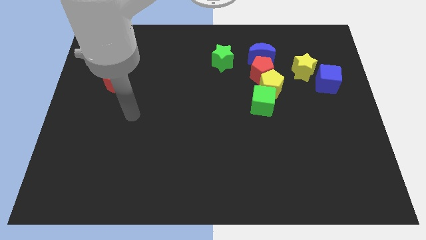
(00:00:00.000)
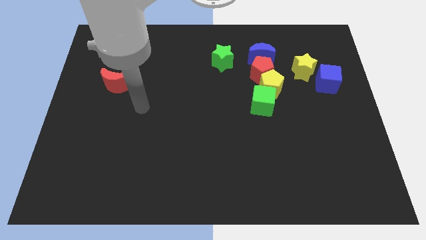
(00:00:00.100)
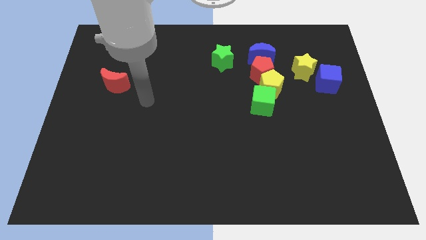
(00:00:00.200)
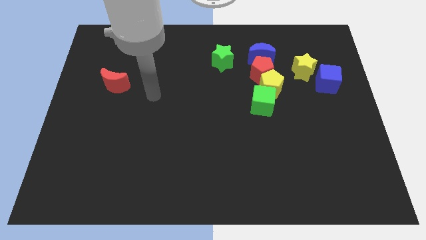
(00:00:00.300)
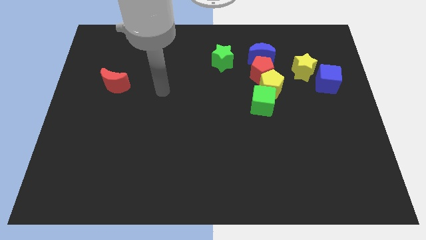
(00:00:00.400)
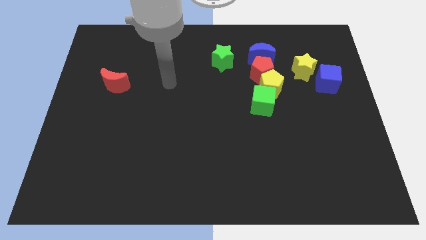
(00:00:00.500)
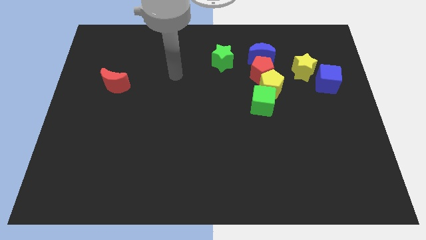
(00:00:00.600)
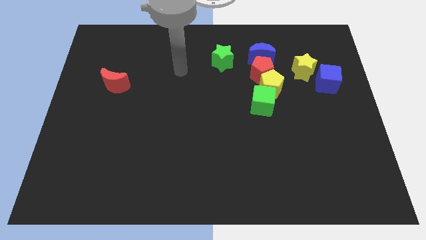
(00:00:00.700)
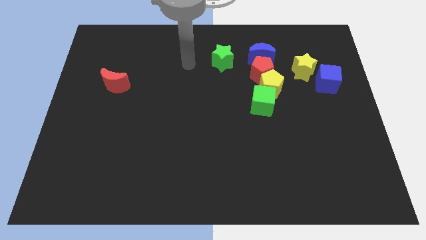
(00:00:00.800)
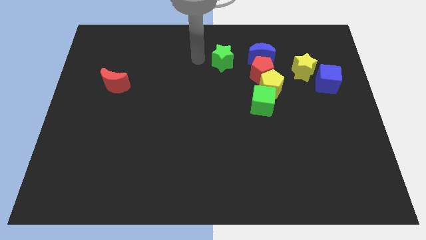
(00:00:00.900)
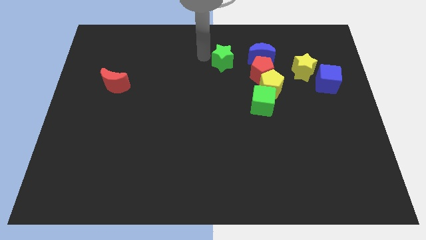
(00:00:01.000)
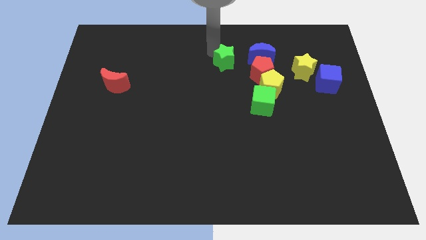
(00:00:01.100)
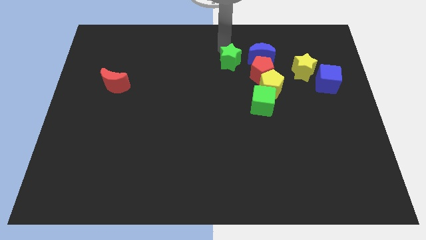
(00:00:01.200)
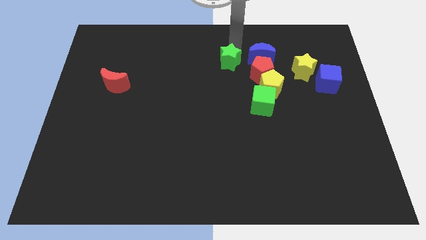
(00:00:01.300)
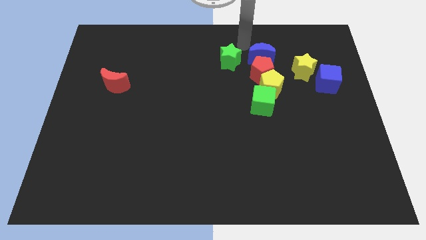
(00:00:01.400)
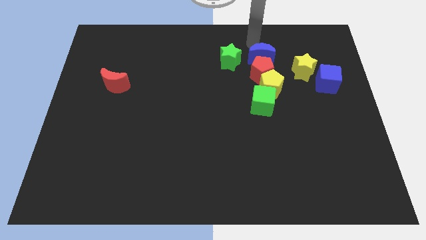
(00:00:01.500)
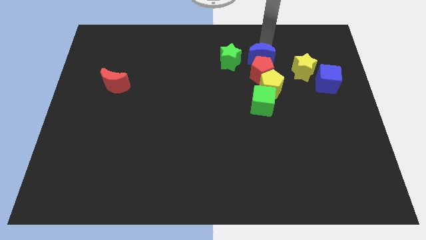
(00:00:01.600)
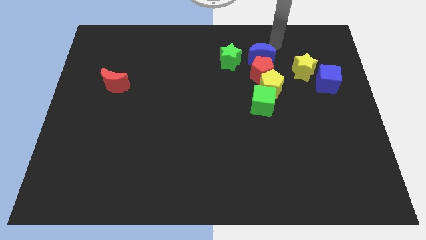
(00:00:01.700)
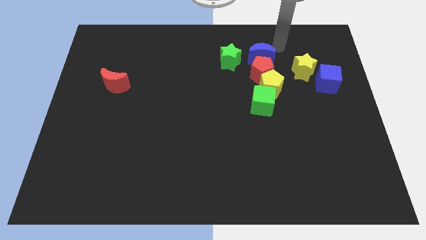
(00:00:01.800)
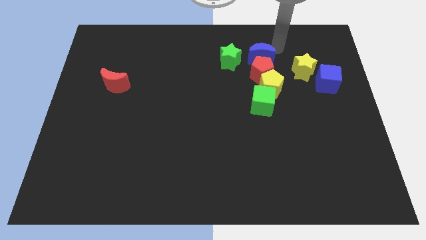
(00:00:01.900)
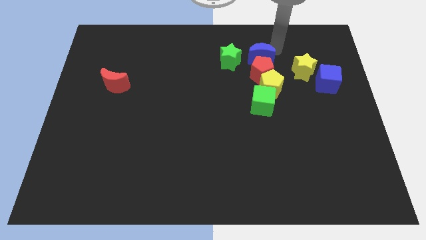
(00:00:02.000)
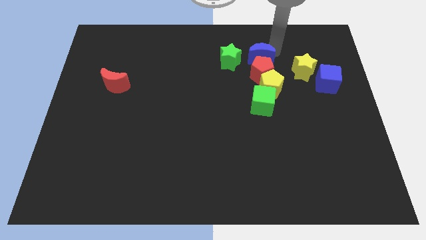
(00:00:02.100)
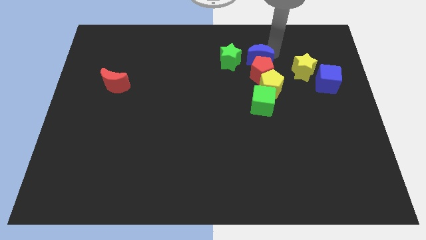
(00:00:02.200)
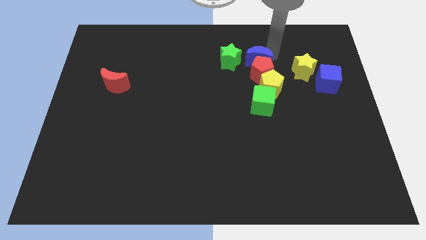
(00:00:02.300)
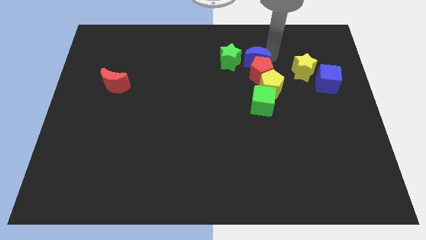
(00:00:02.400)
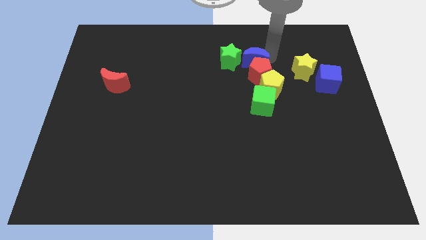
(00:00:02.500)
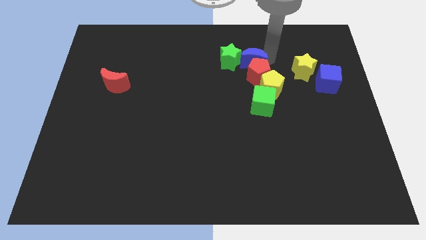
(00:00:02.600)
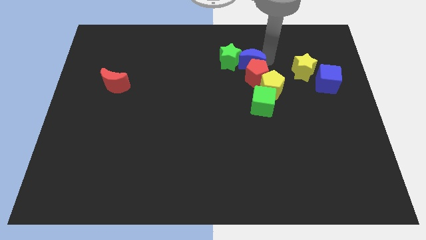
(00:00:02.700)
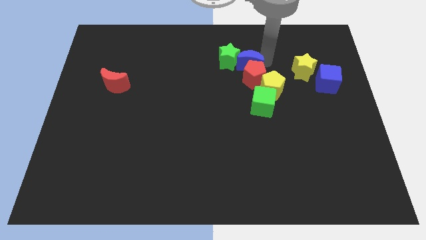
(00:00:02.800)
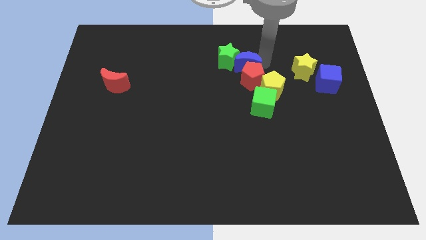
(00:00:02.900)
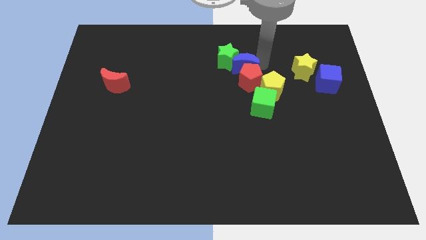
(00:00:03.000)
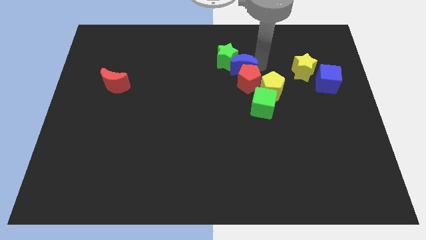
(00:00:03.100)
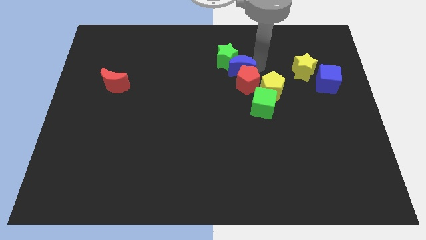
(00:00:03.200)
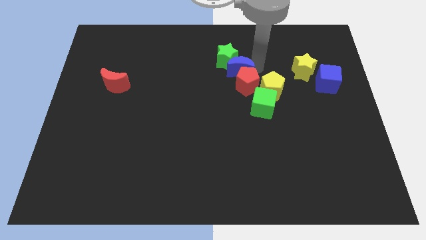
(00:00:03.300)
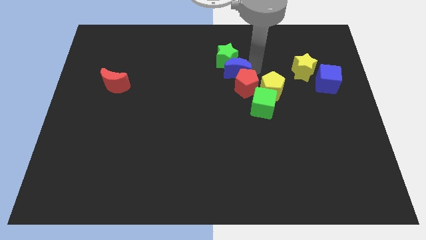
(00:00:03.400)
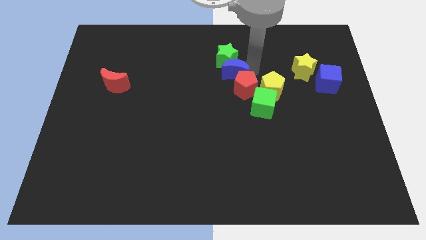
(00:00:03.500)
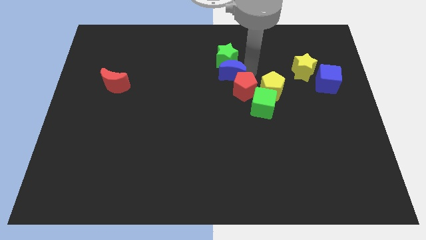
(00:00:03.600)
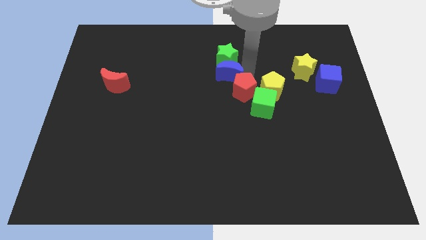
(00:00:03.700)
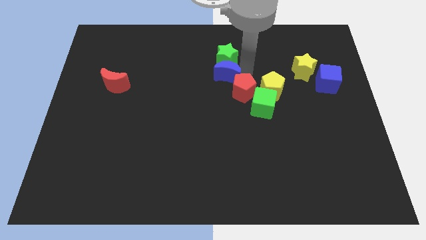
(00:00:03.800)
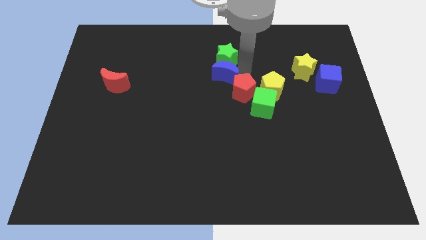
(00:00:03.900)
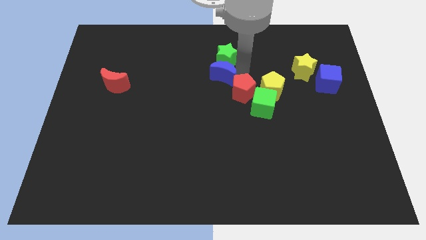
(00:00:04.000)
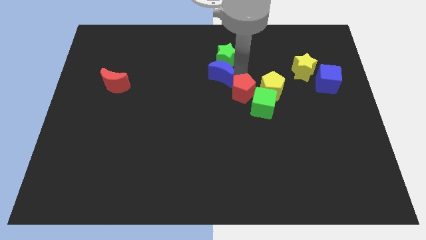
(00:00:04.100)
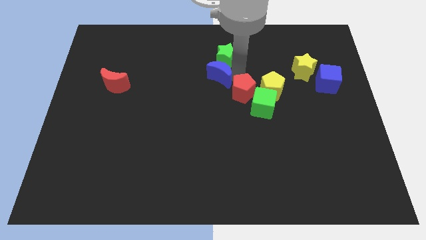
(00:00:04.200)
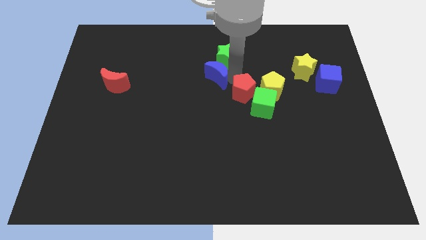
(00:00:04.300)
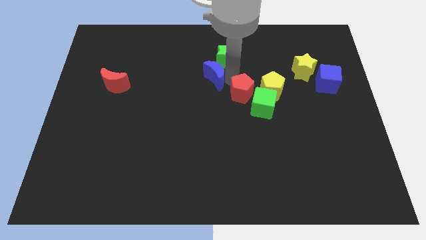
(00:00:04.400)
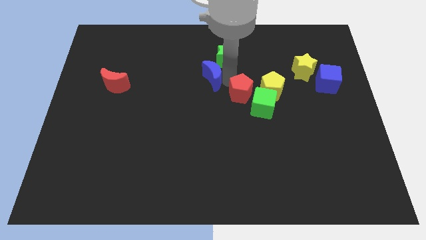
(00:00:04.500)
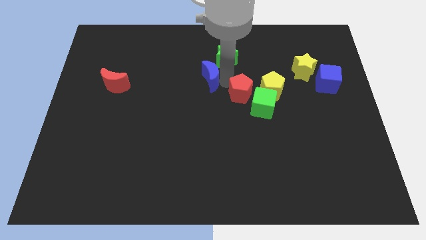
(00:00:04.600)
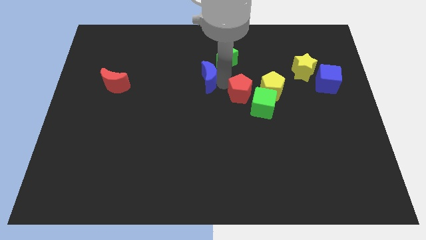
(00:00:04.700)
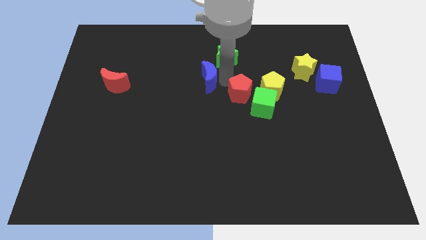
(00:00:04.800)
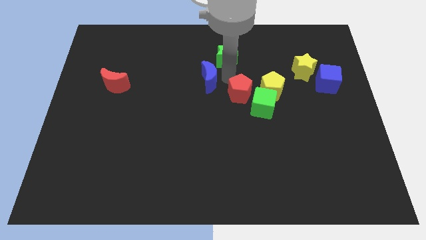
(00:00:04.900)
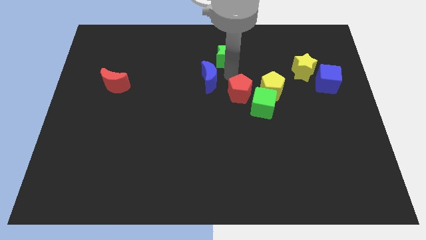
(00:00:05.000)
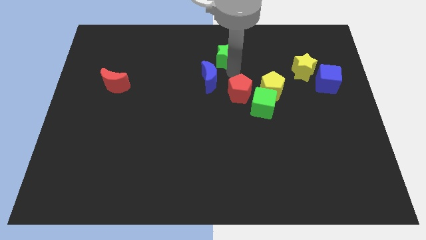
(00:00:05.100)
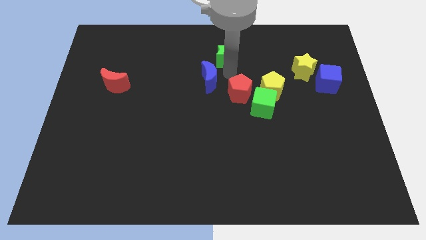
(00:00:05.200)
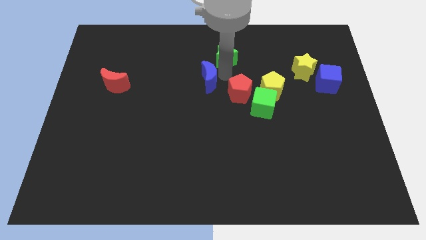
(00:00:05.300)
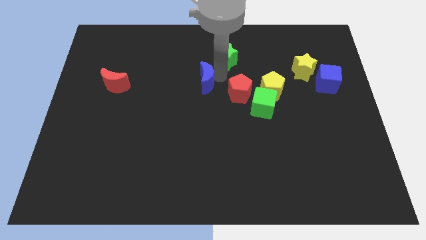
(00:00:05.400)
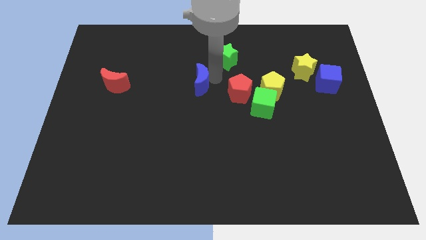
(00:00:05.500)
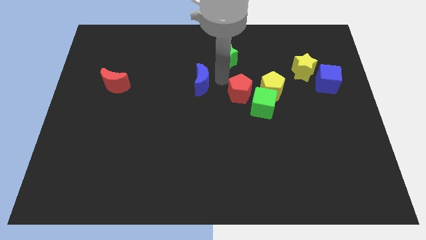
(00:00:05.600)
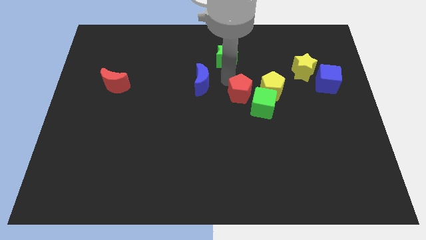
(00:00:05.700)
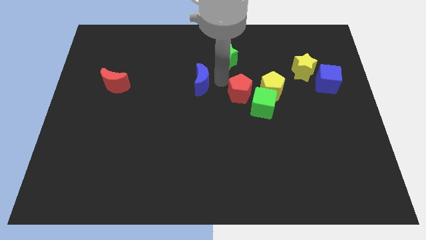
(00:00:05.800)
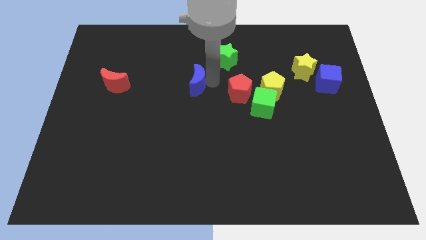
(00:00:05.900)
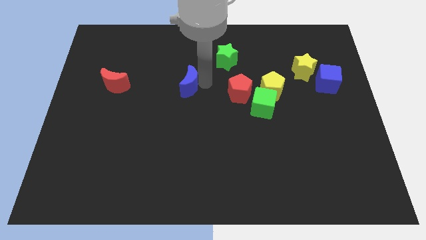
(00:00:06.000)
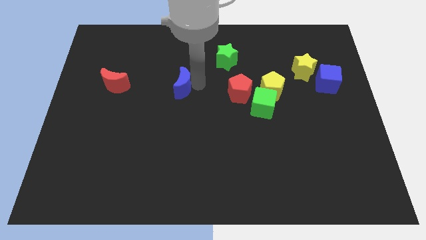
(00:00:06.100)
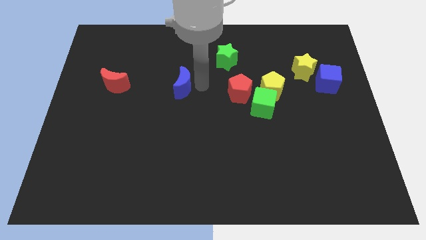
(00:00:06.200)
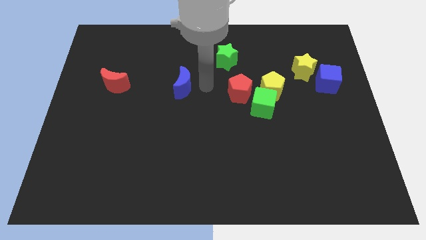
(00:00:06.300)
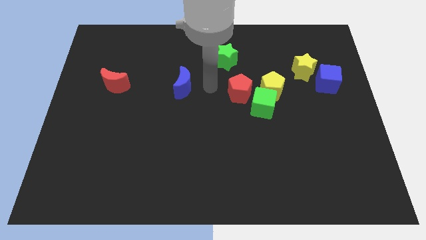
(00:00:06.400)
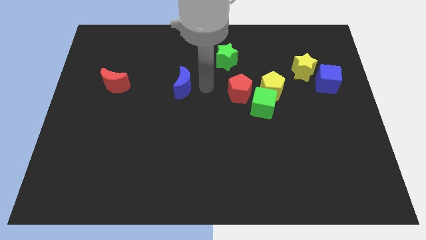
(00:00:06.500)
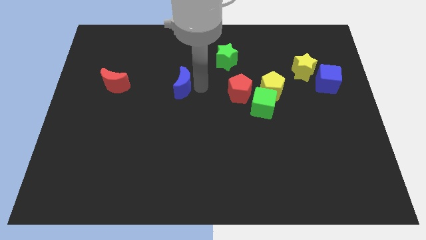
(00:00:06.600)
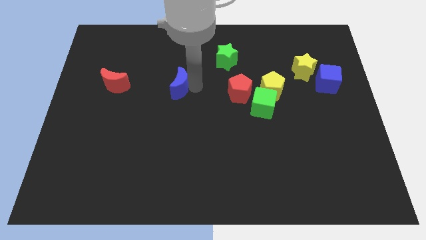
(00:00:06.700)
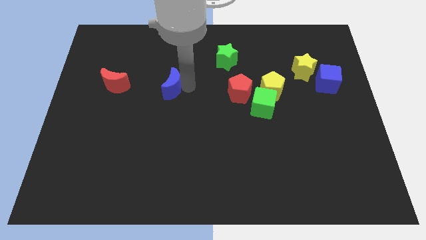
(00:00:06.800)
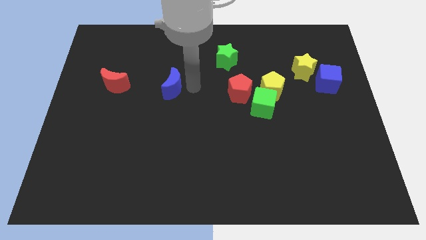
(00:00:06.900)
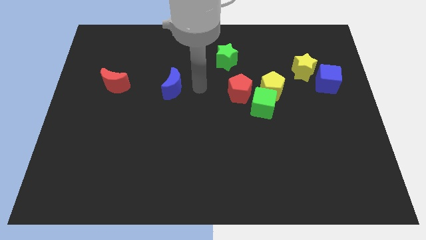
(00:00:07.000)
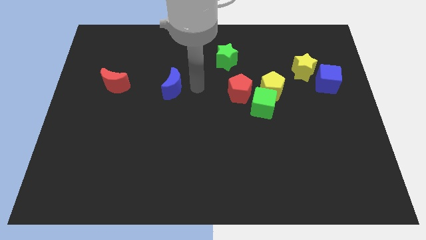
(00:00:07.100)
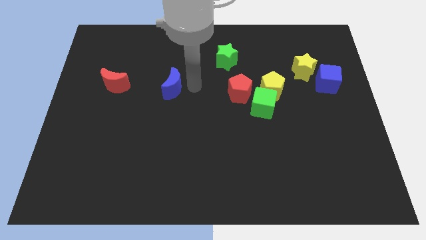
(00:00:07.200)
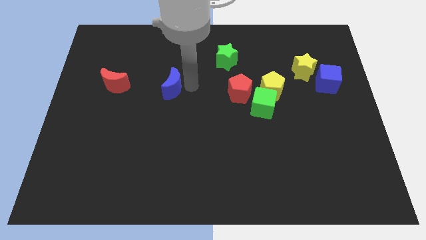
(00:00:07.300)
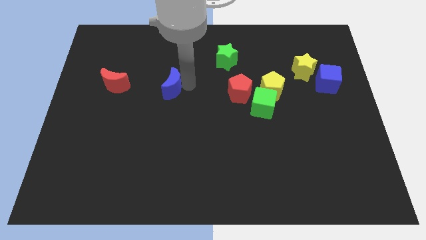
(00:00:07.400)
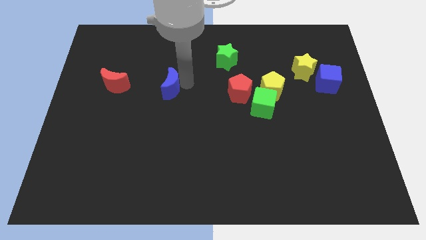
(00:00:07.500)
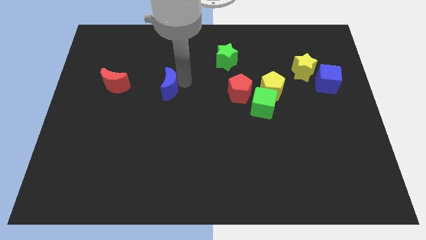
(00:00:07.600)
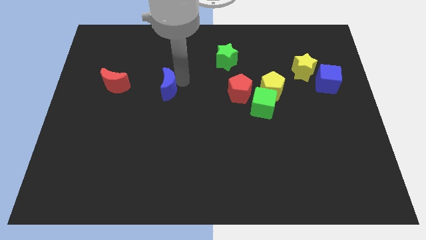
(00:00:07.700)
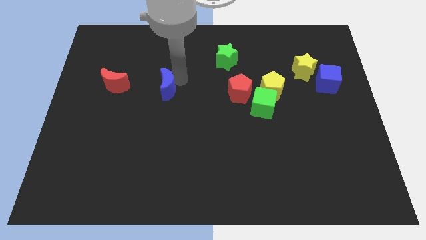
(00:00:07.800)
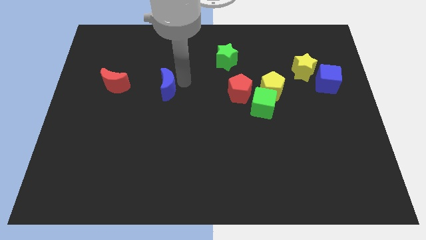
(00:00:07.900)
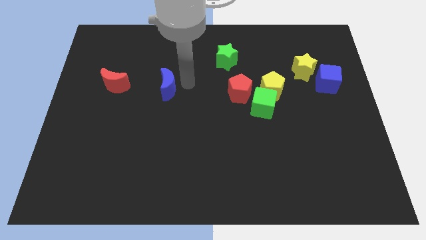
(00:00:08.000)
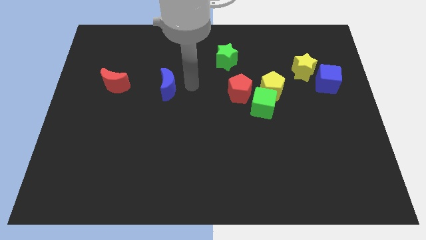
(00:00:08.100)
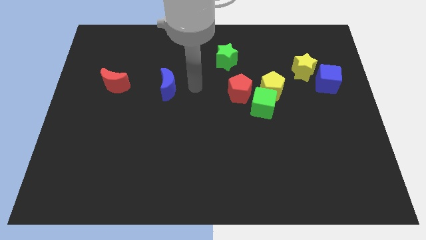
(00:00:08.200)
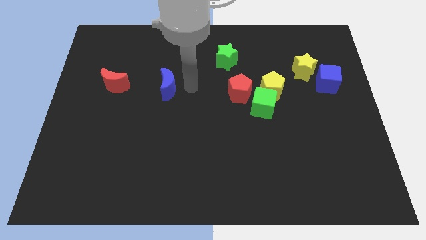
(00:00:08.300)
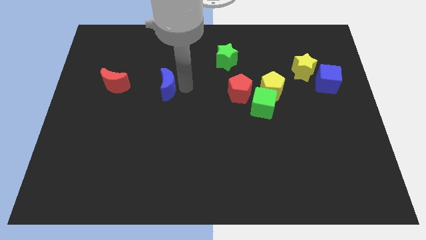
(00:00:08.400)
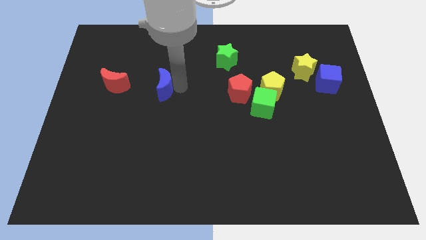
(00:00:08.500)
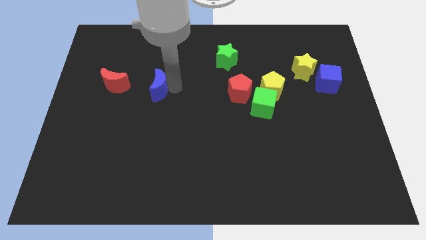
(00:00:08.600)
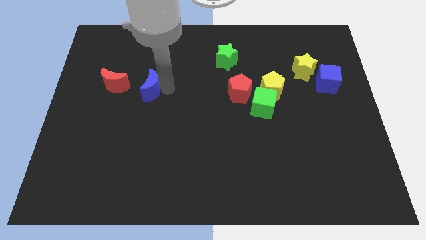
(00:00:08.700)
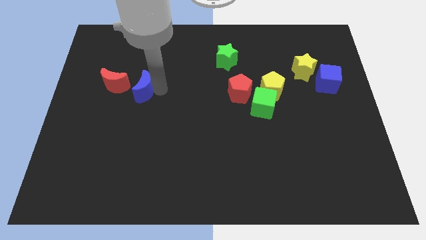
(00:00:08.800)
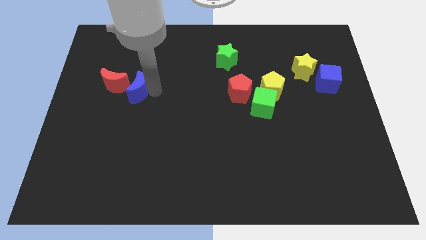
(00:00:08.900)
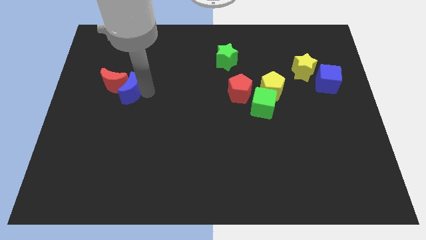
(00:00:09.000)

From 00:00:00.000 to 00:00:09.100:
move the blue moon towards the red moon
